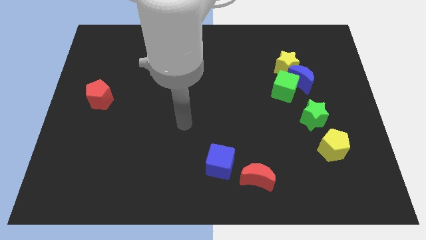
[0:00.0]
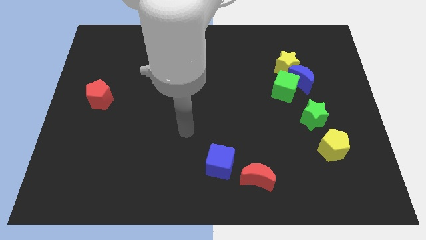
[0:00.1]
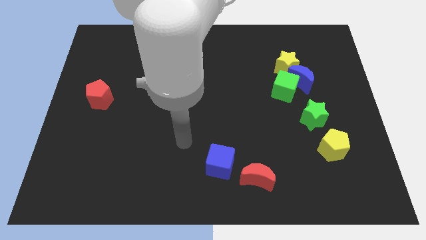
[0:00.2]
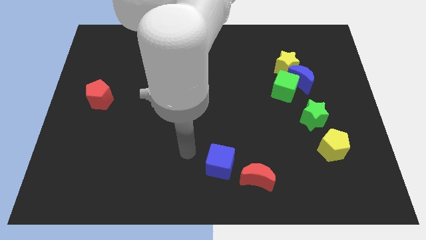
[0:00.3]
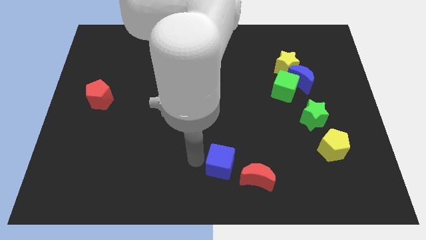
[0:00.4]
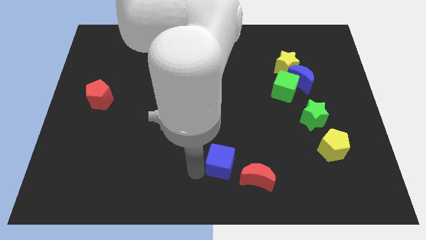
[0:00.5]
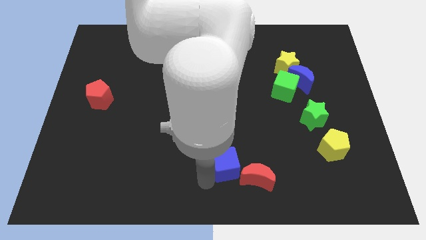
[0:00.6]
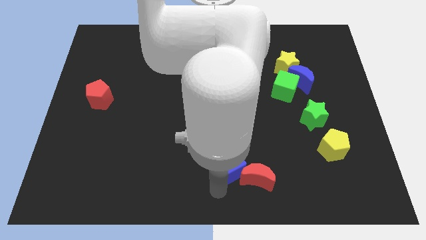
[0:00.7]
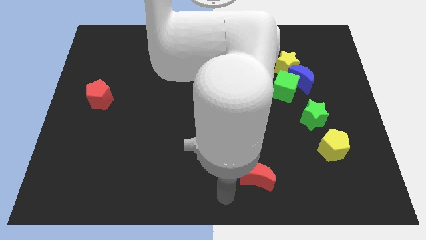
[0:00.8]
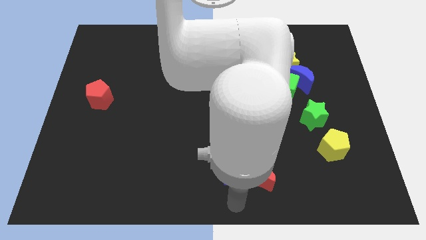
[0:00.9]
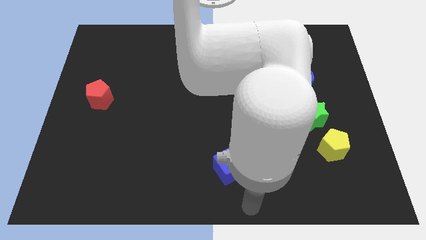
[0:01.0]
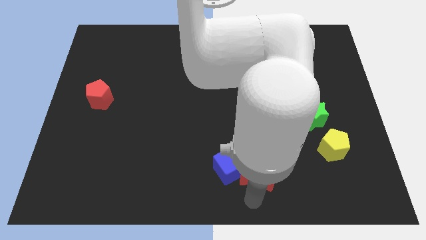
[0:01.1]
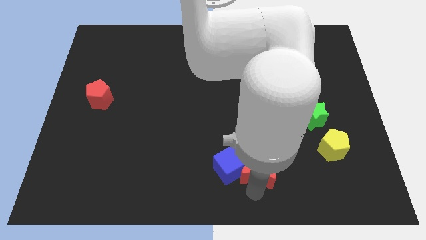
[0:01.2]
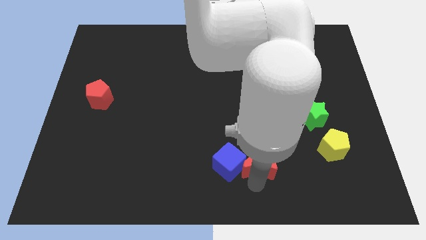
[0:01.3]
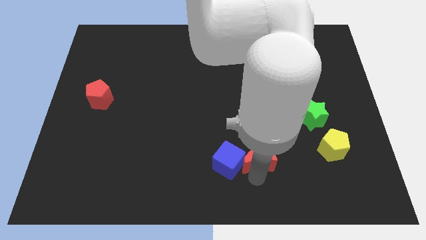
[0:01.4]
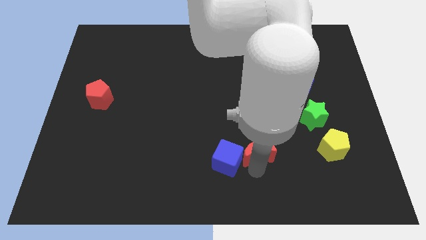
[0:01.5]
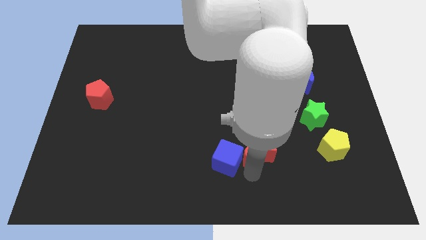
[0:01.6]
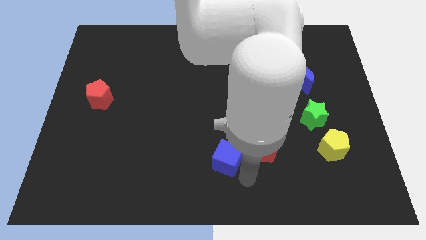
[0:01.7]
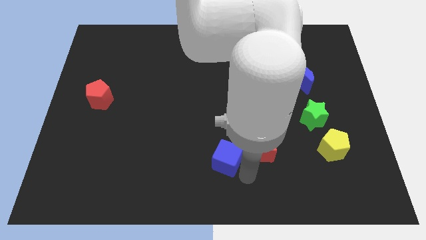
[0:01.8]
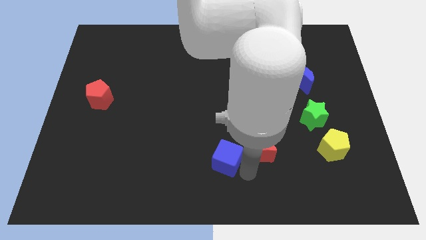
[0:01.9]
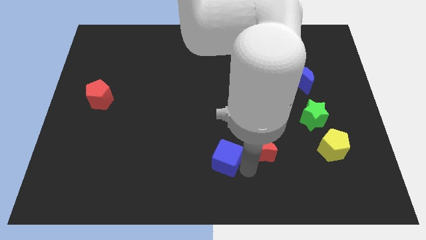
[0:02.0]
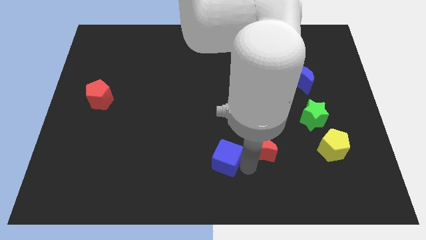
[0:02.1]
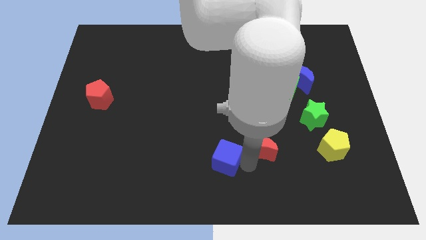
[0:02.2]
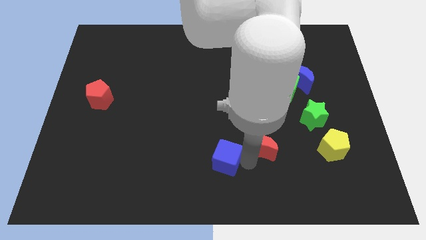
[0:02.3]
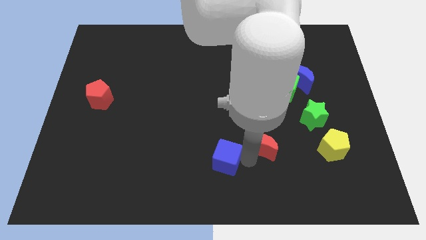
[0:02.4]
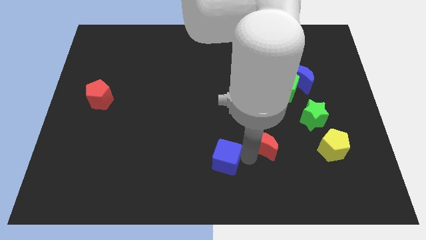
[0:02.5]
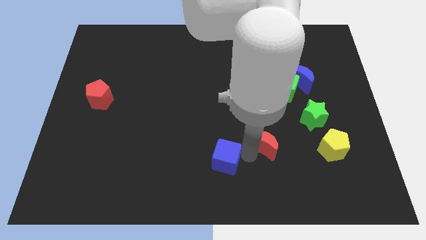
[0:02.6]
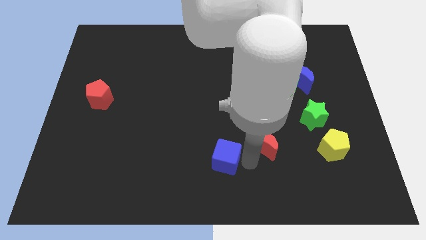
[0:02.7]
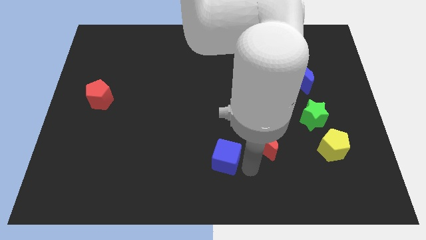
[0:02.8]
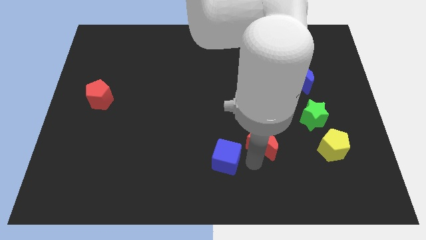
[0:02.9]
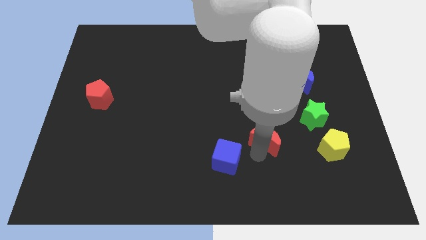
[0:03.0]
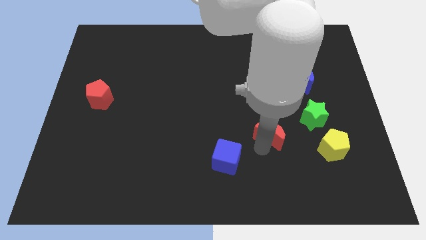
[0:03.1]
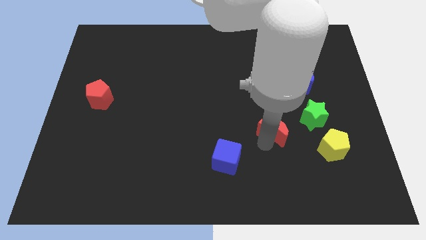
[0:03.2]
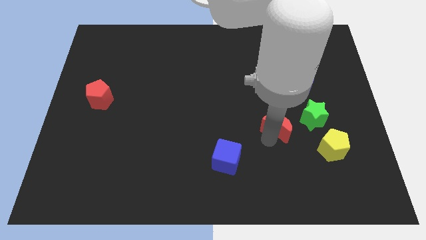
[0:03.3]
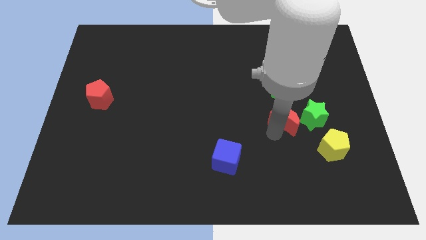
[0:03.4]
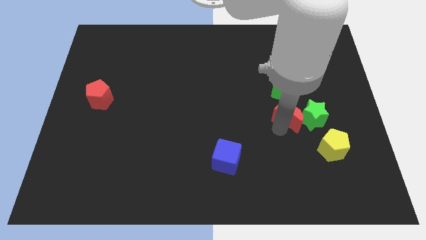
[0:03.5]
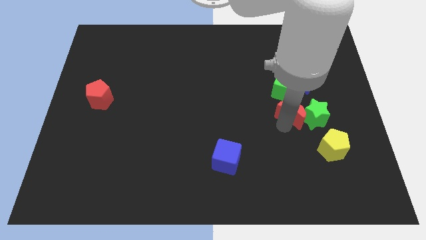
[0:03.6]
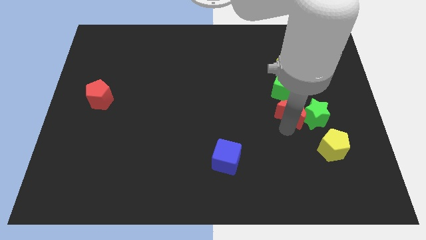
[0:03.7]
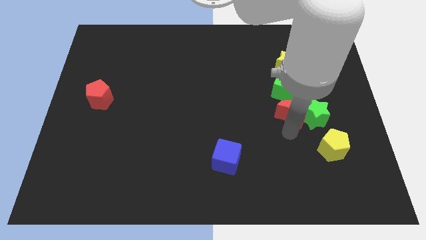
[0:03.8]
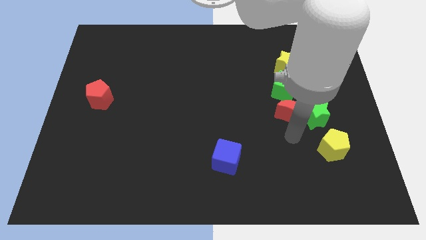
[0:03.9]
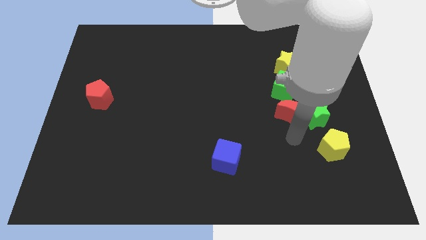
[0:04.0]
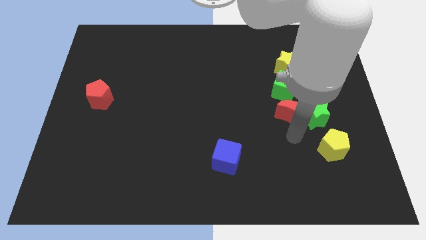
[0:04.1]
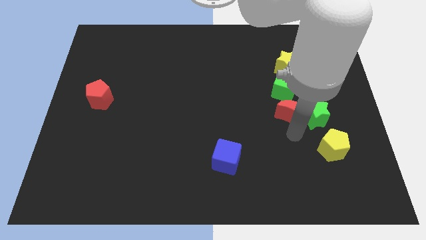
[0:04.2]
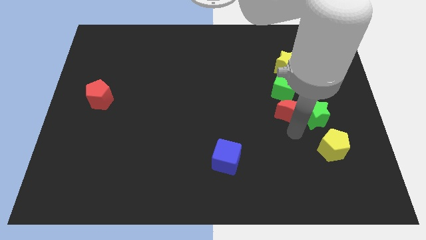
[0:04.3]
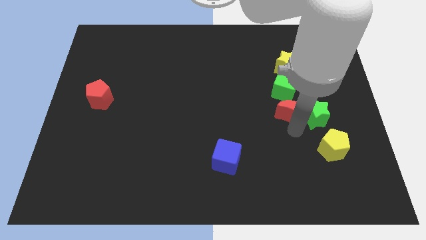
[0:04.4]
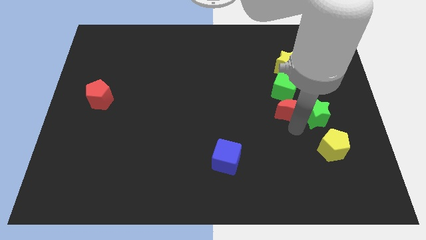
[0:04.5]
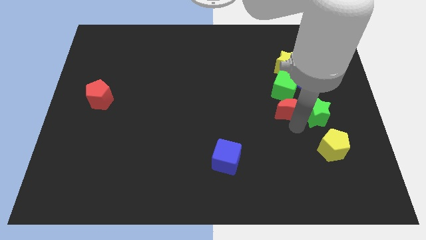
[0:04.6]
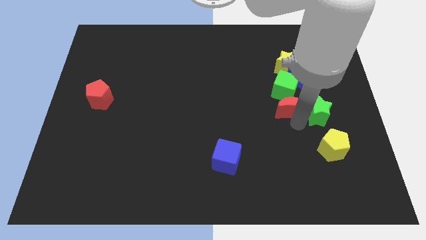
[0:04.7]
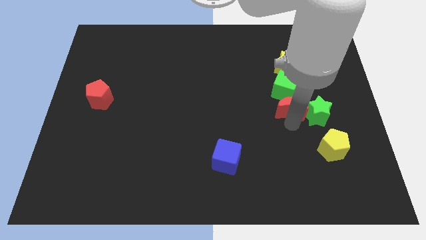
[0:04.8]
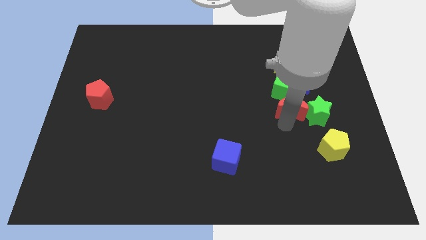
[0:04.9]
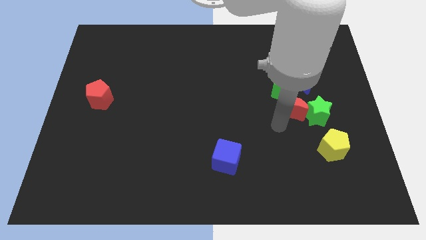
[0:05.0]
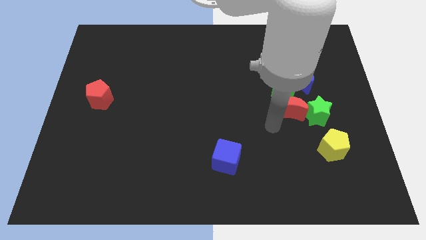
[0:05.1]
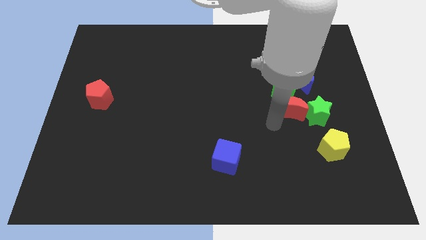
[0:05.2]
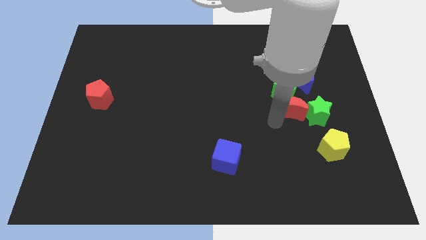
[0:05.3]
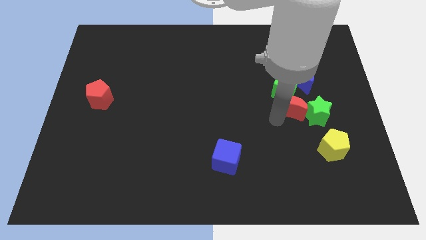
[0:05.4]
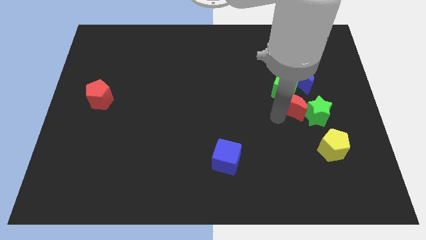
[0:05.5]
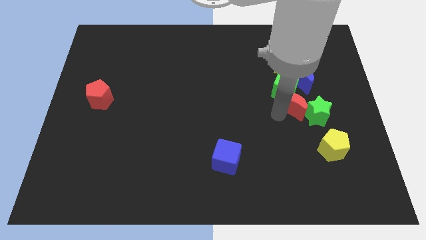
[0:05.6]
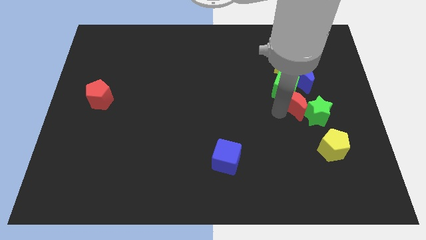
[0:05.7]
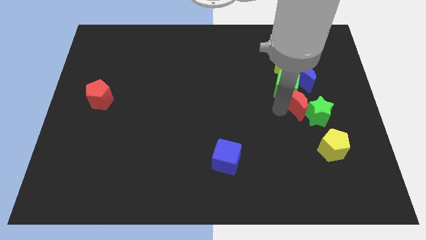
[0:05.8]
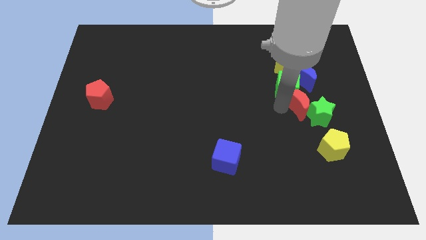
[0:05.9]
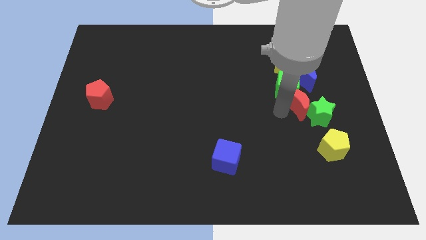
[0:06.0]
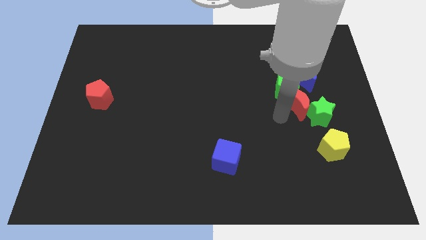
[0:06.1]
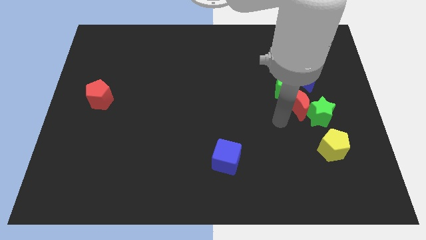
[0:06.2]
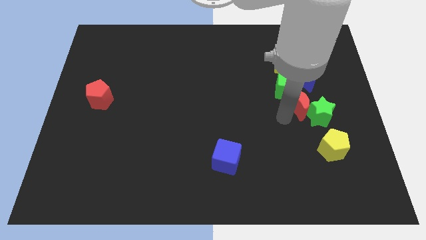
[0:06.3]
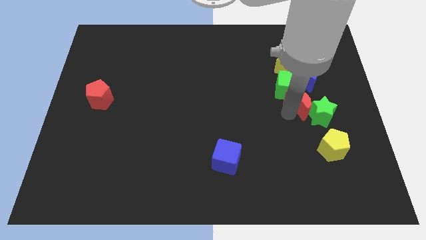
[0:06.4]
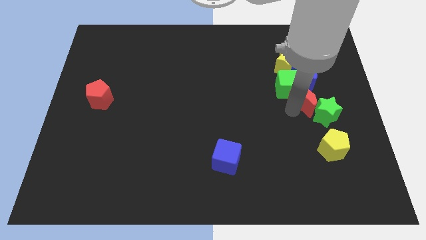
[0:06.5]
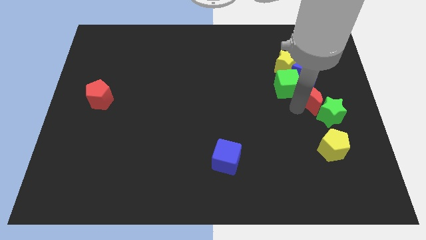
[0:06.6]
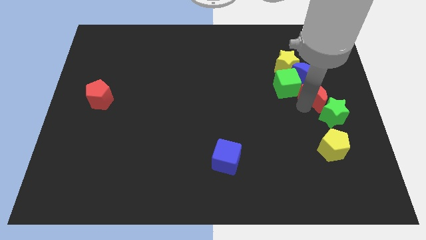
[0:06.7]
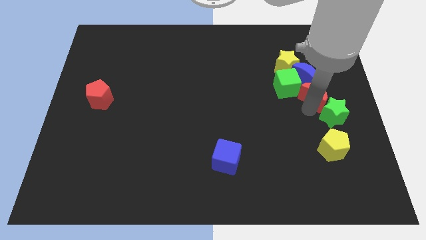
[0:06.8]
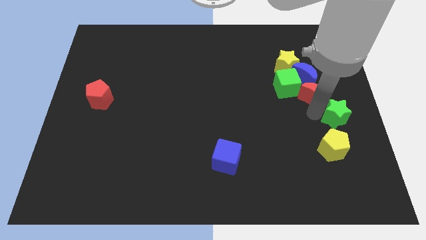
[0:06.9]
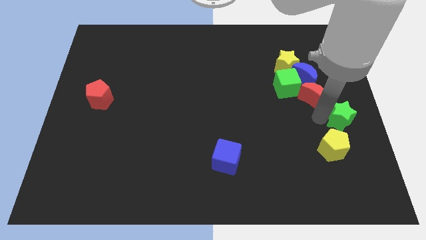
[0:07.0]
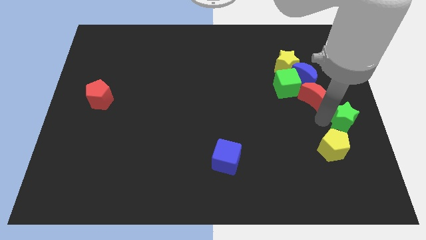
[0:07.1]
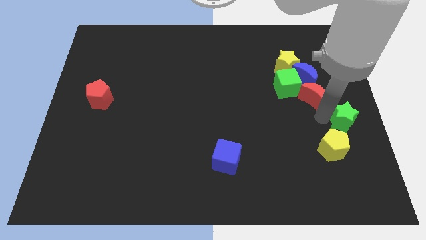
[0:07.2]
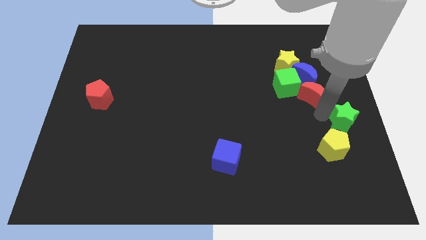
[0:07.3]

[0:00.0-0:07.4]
slide the red moon close to the blue moon

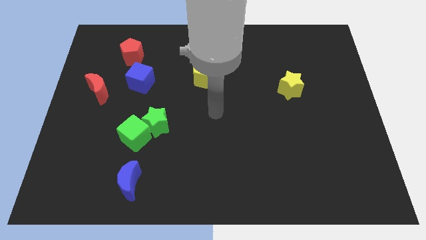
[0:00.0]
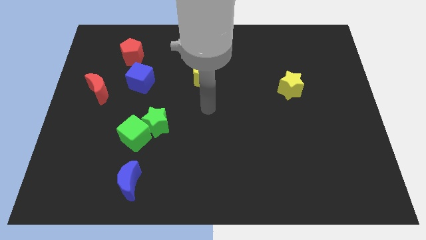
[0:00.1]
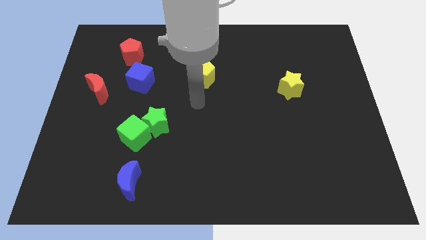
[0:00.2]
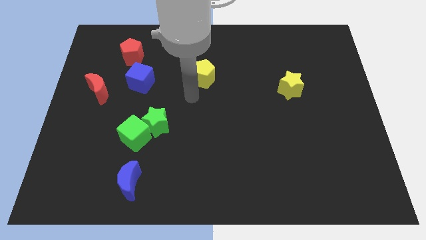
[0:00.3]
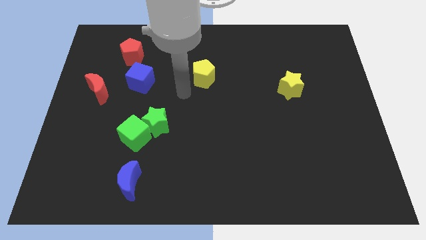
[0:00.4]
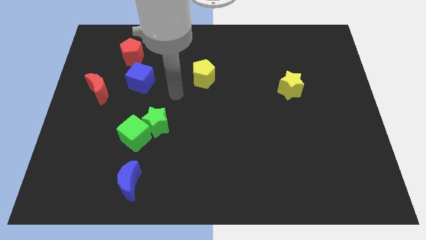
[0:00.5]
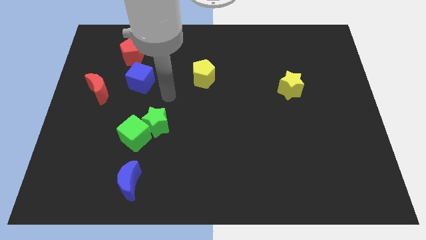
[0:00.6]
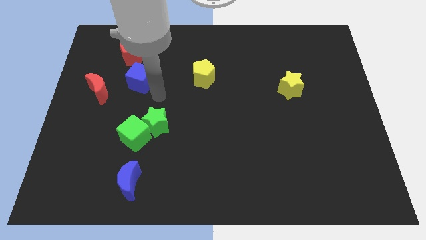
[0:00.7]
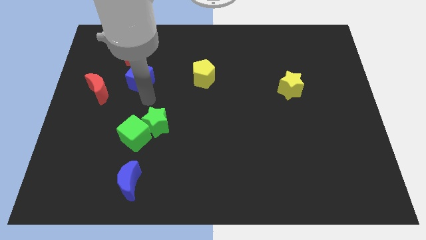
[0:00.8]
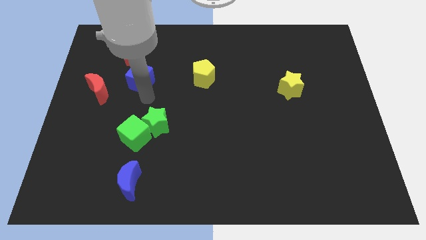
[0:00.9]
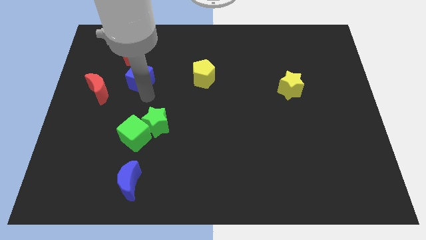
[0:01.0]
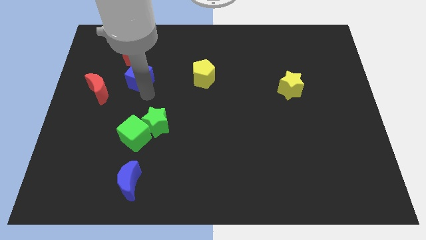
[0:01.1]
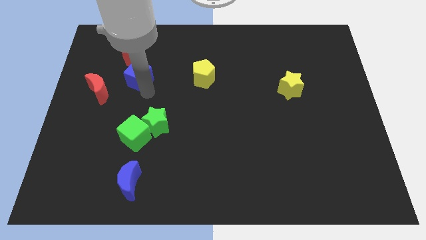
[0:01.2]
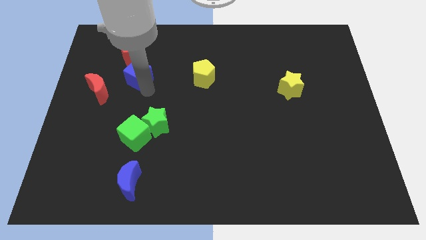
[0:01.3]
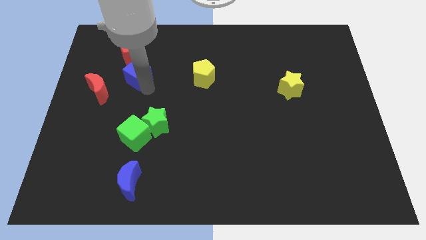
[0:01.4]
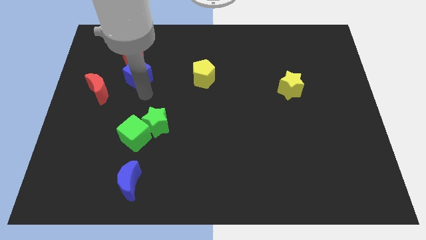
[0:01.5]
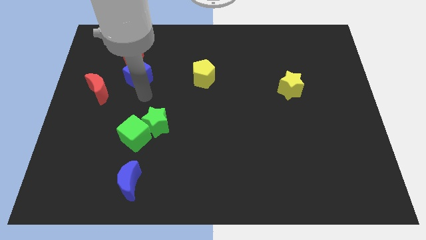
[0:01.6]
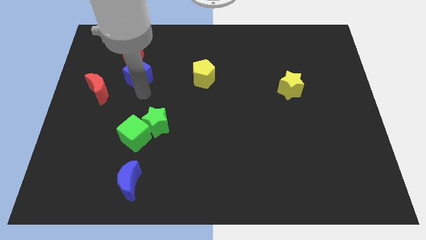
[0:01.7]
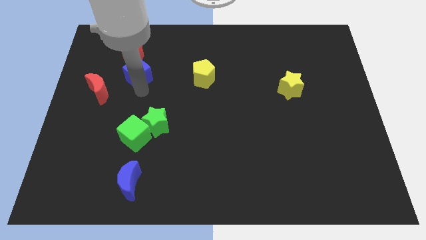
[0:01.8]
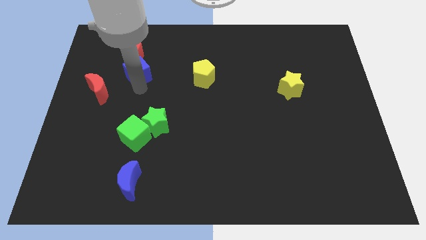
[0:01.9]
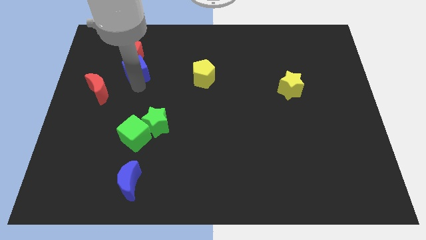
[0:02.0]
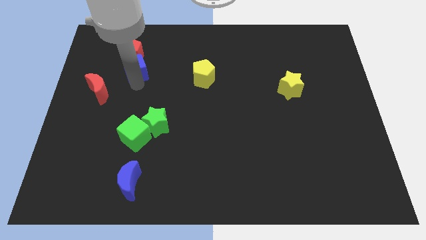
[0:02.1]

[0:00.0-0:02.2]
slide the blue cube next to the red pentagon
